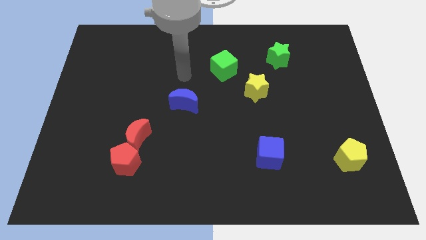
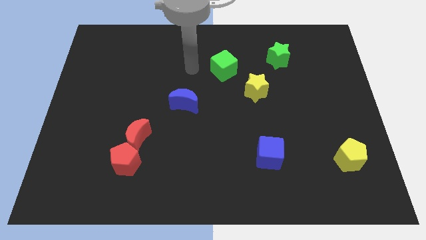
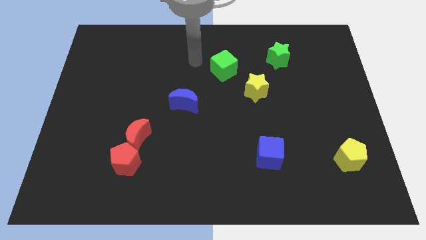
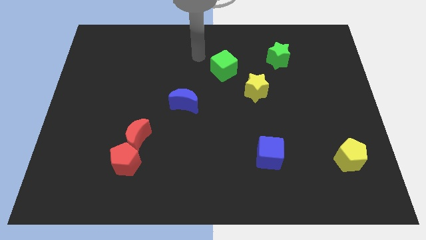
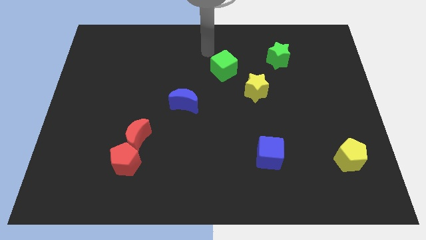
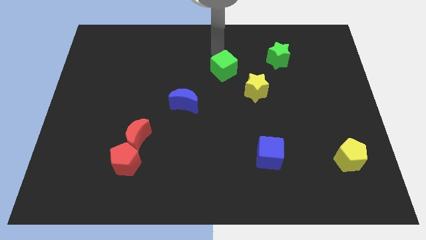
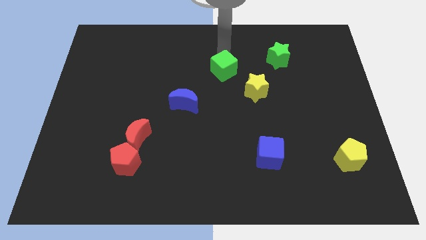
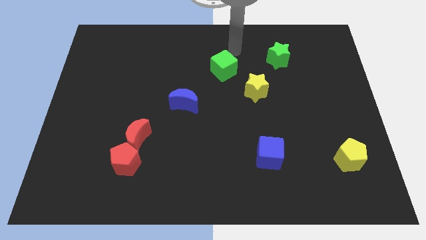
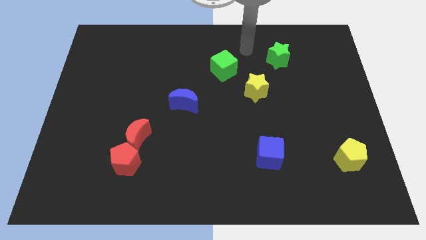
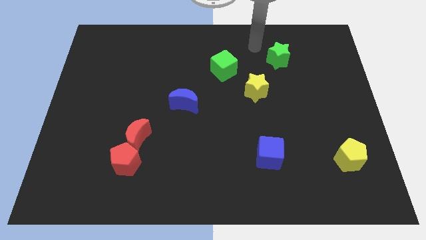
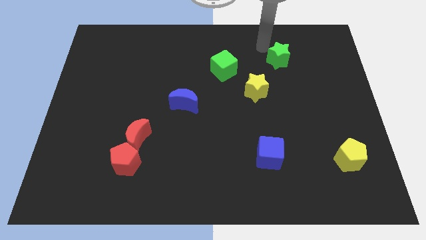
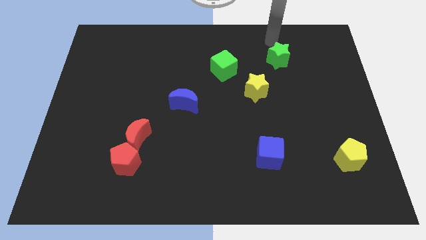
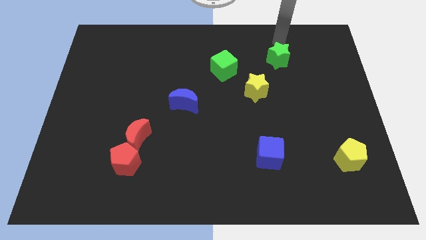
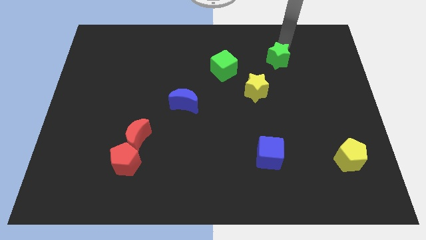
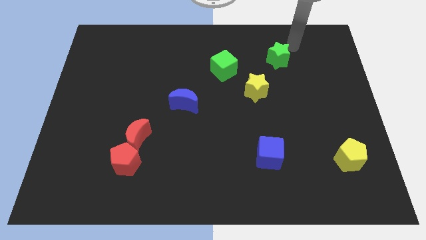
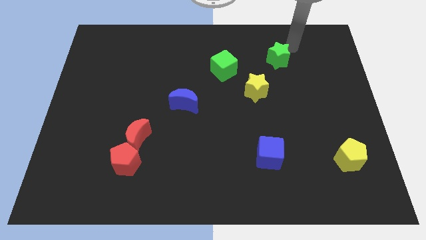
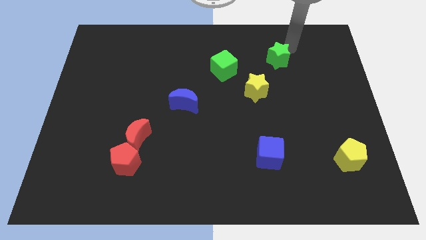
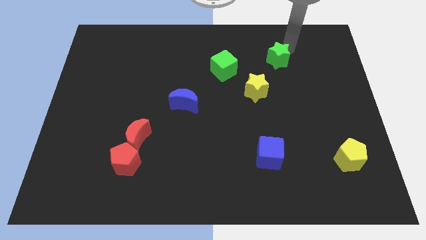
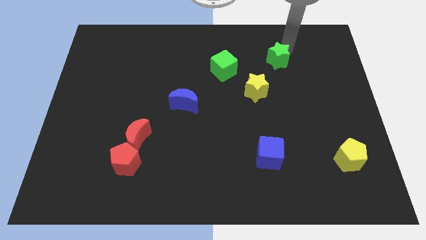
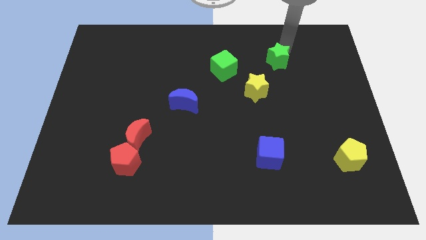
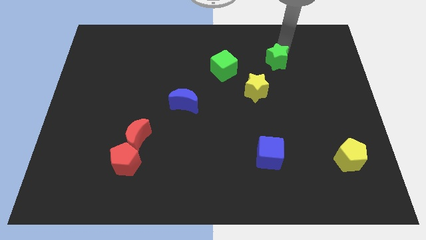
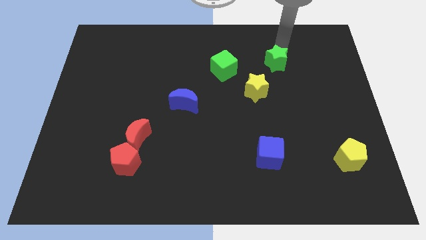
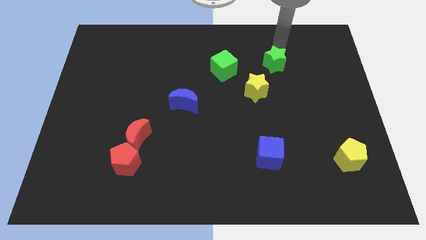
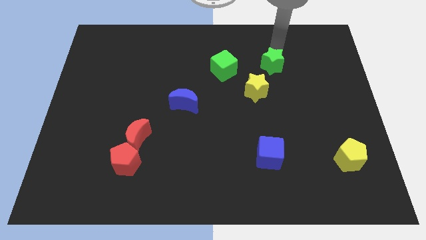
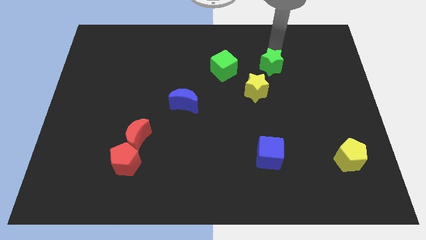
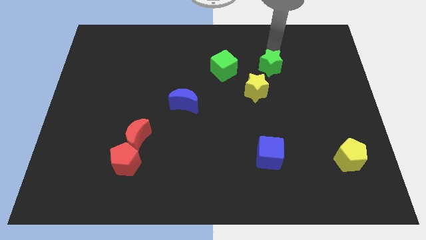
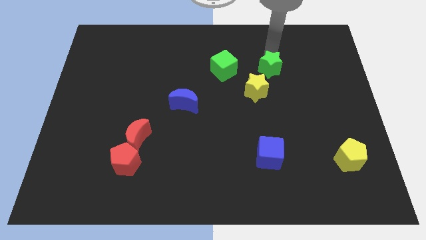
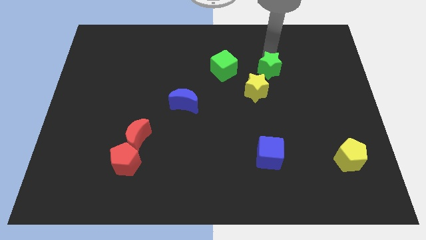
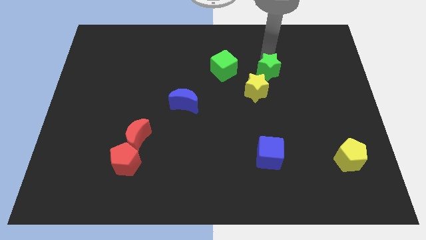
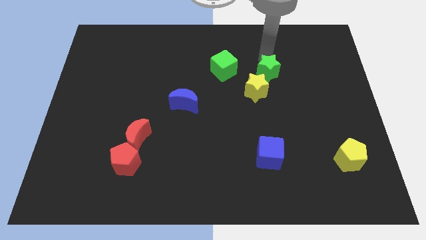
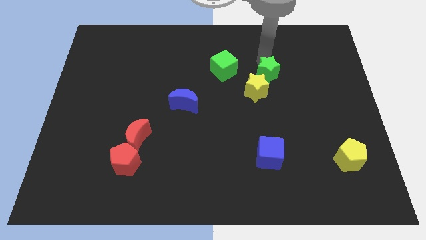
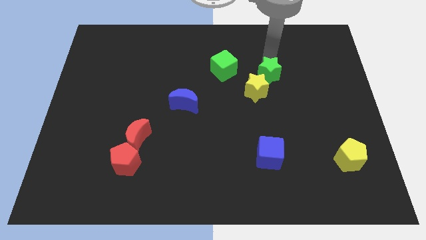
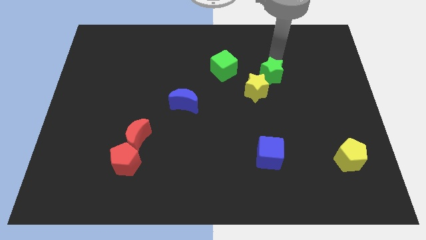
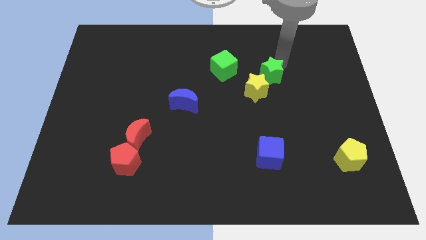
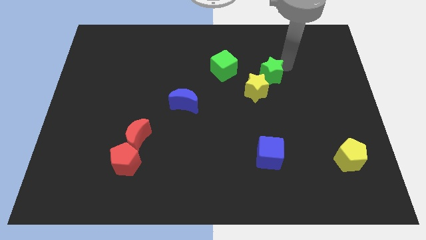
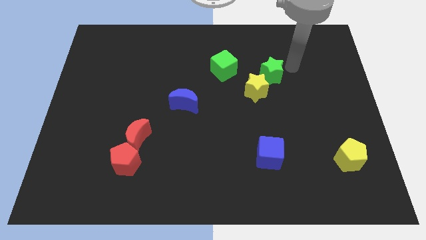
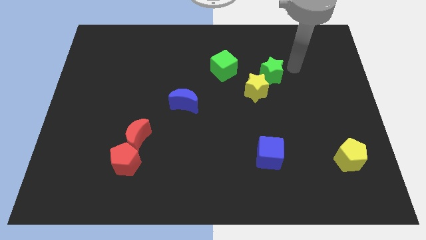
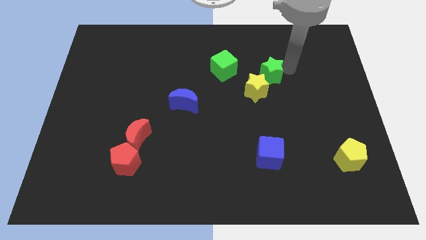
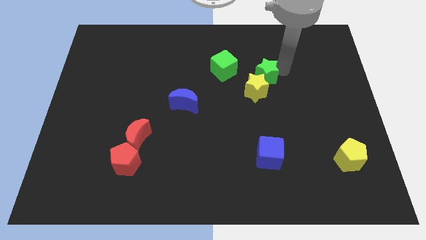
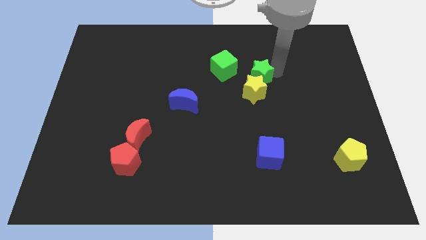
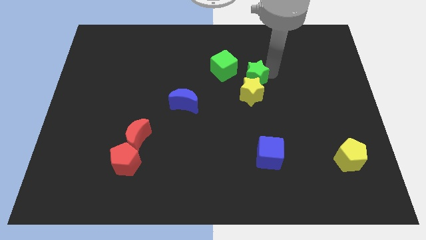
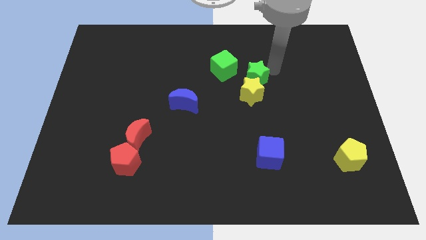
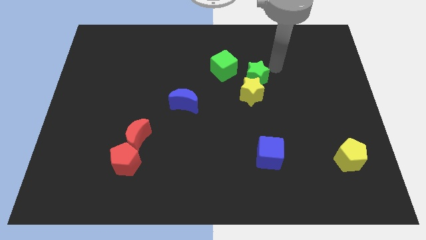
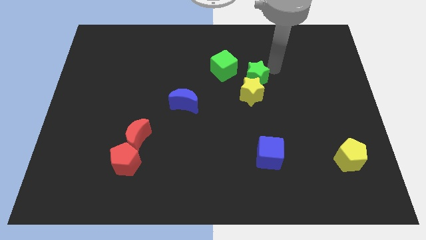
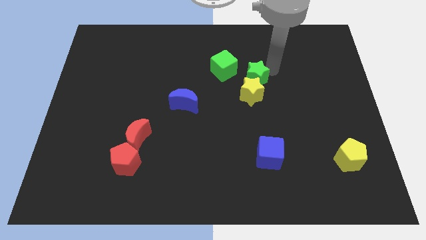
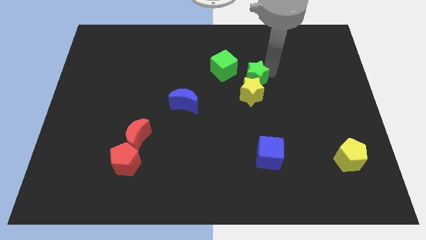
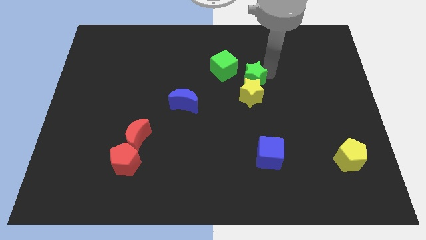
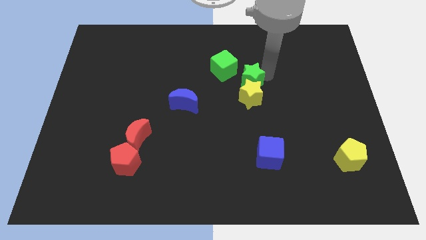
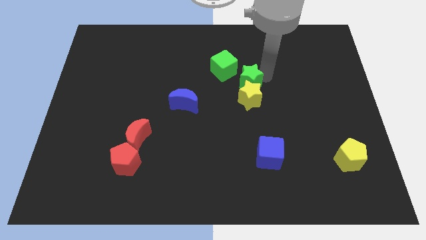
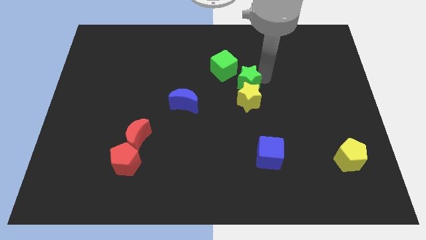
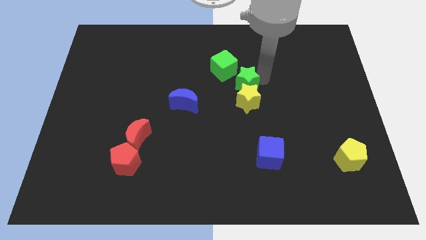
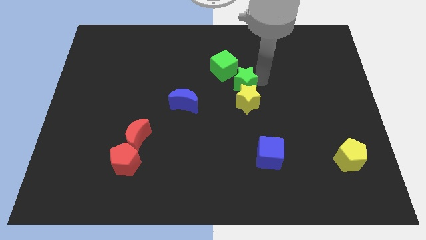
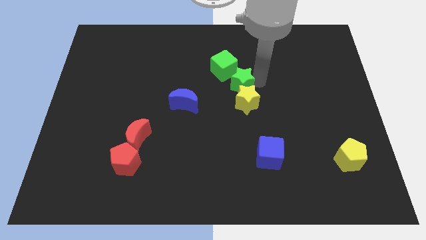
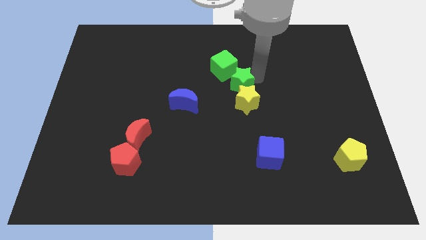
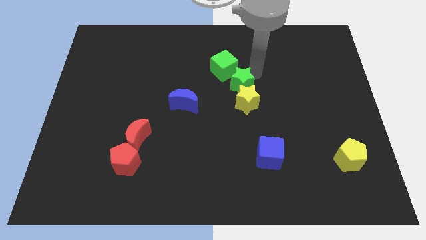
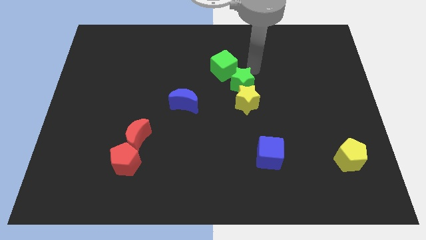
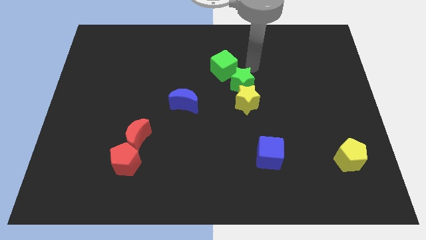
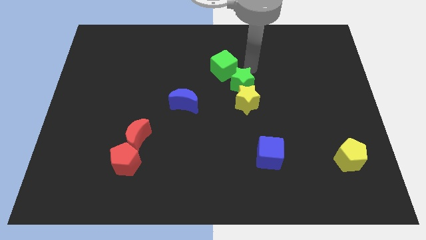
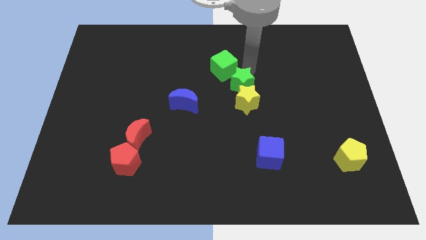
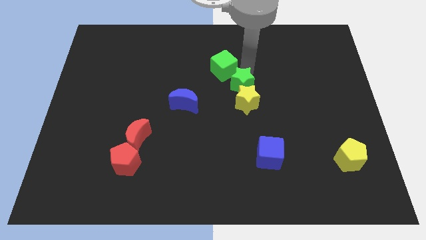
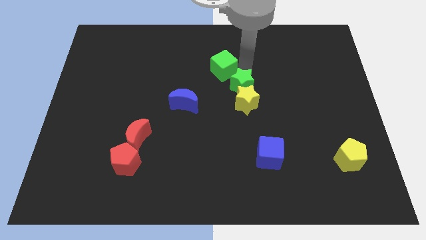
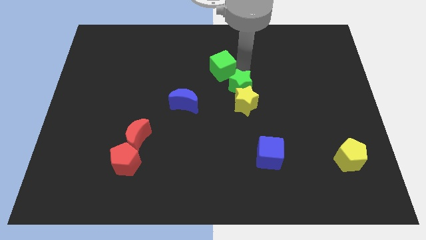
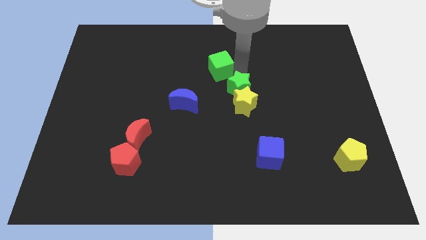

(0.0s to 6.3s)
put the green star to the right of the blue moon

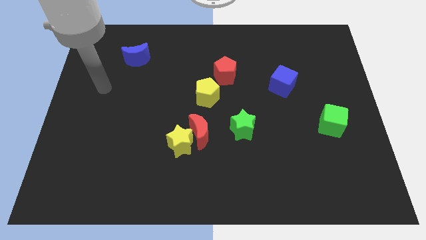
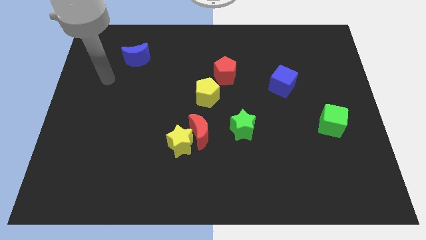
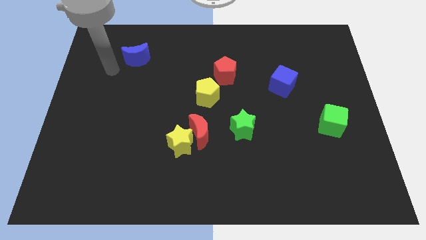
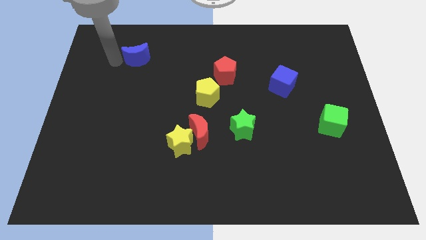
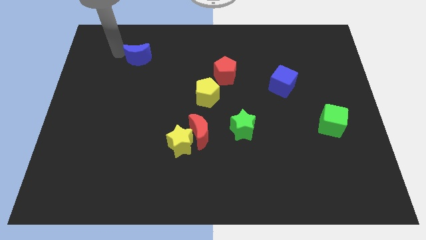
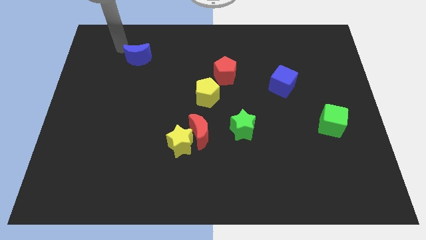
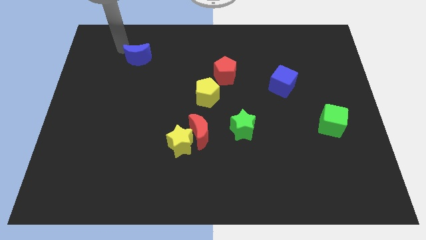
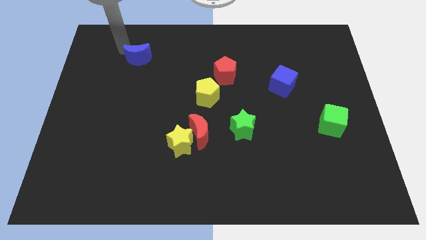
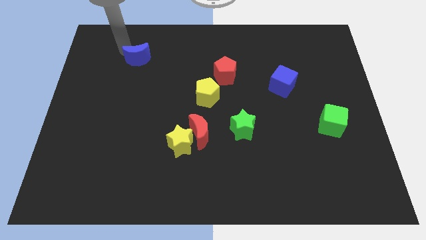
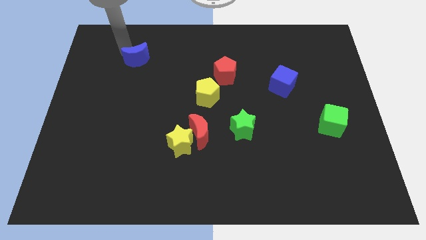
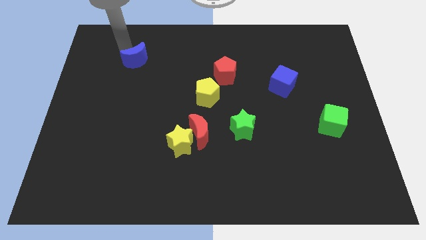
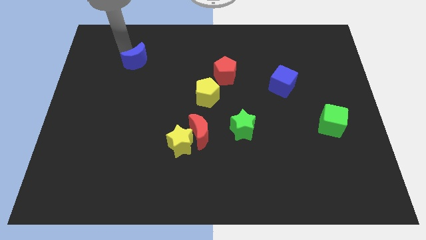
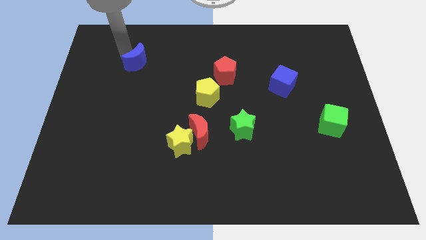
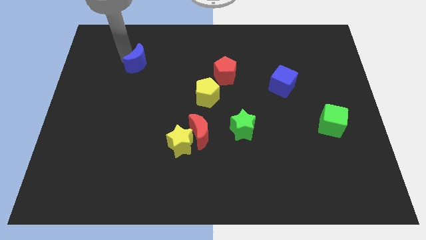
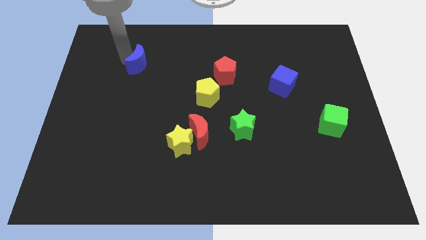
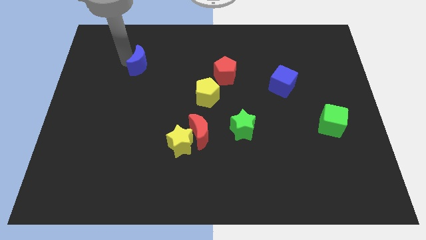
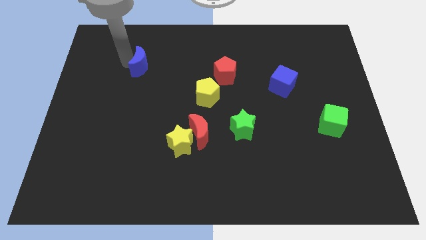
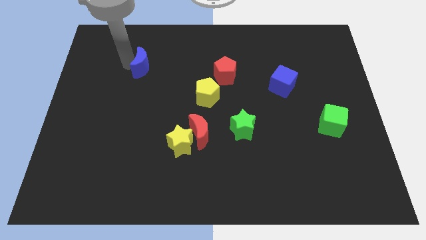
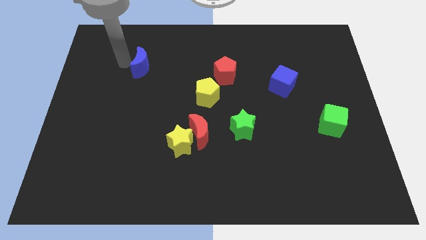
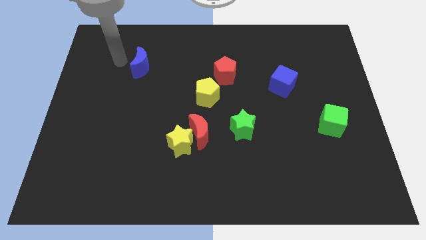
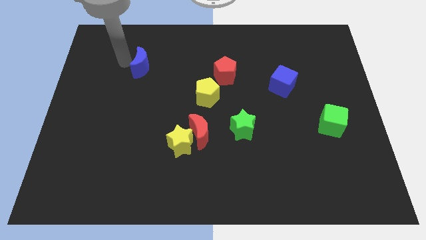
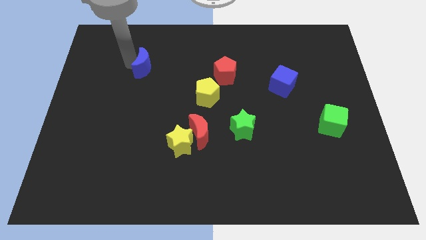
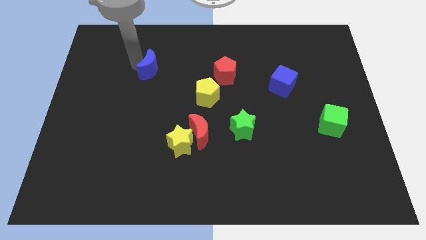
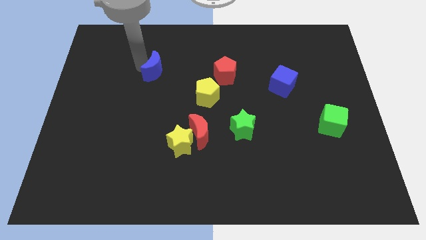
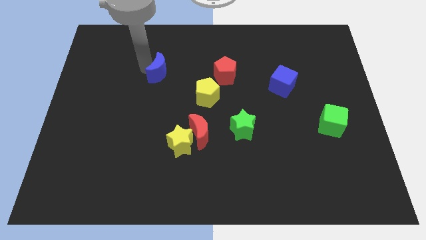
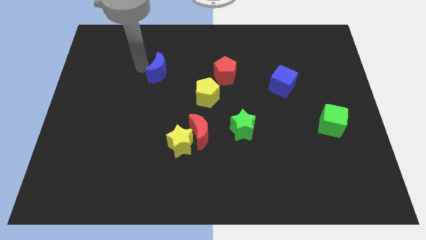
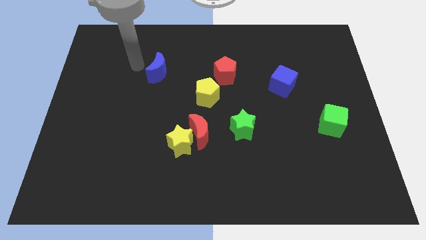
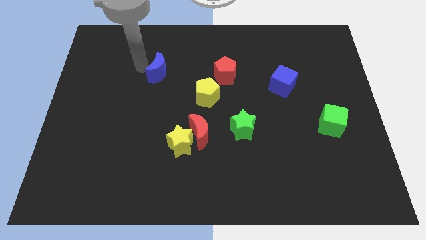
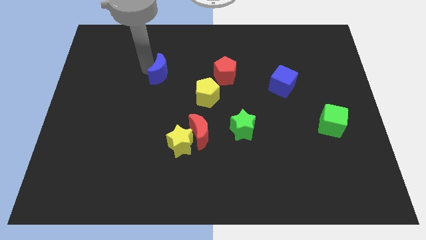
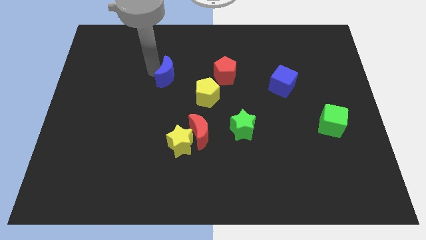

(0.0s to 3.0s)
push the blue moon diagonally up and to the left of the yellow pentagon
